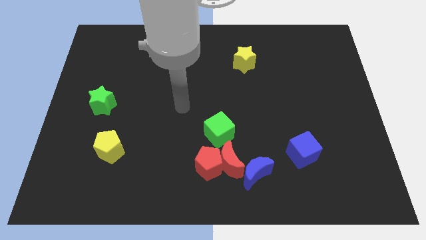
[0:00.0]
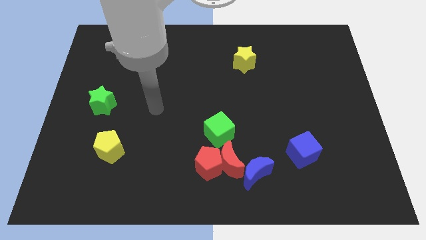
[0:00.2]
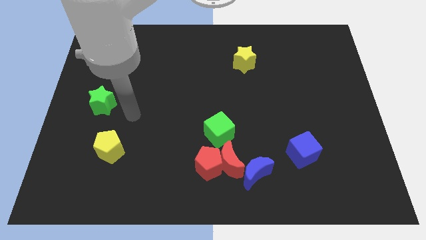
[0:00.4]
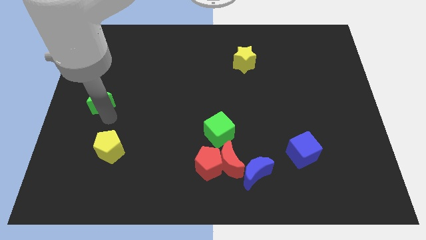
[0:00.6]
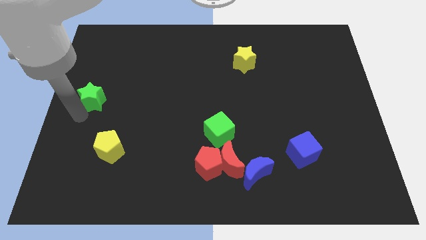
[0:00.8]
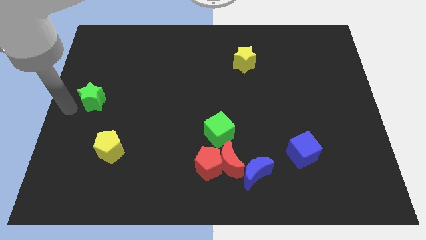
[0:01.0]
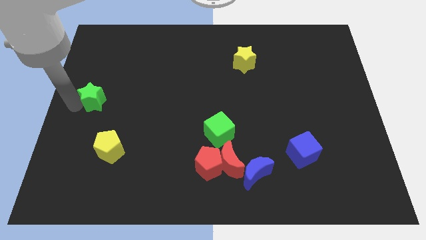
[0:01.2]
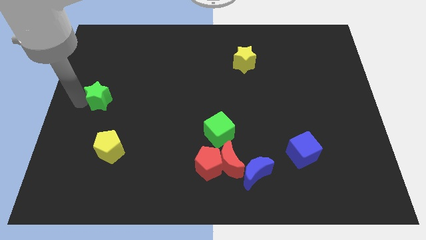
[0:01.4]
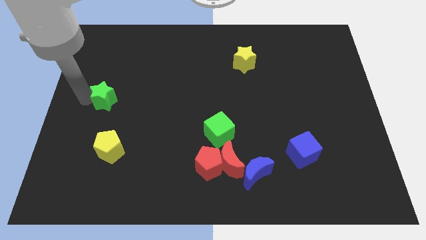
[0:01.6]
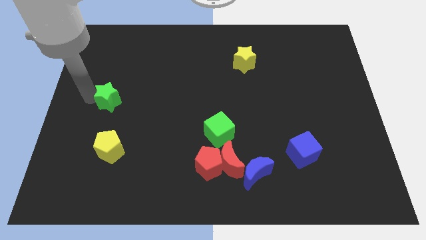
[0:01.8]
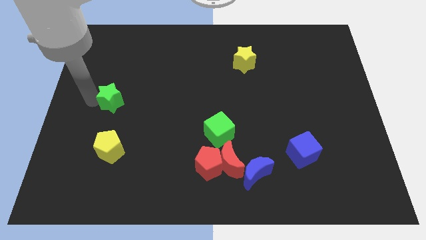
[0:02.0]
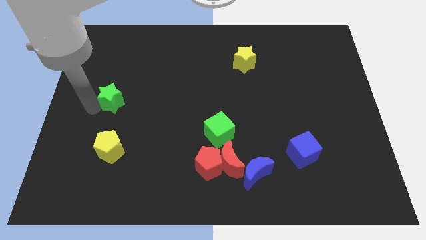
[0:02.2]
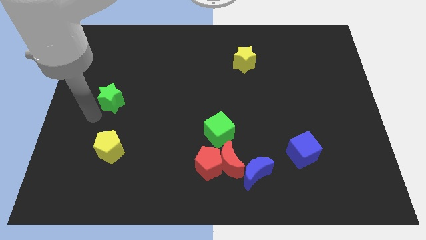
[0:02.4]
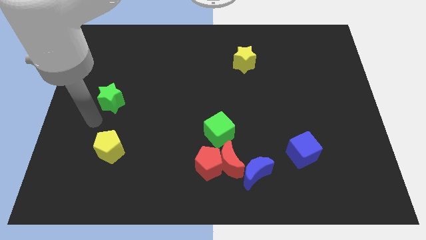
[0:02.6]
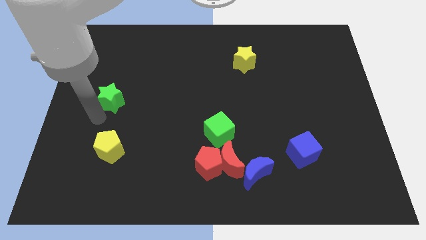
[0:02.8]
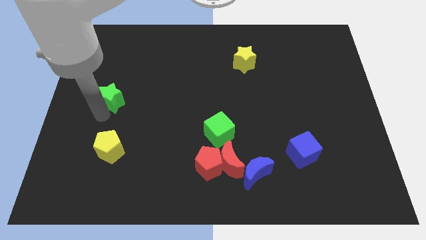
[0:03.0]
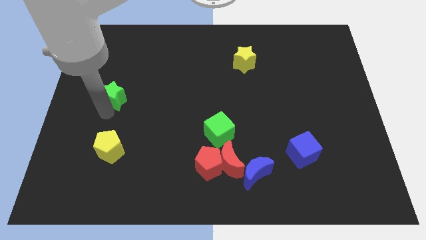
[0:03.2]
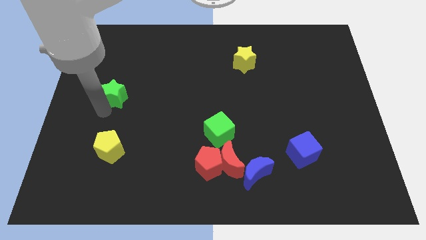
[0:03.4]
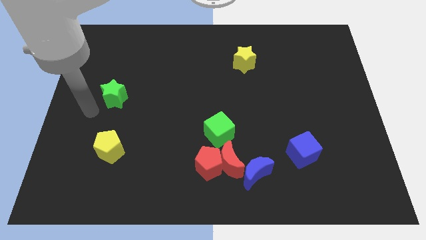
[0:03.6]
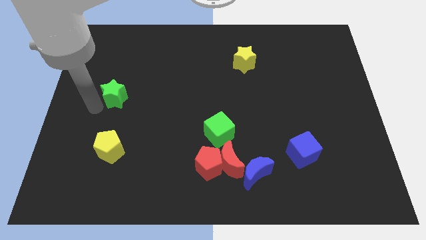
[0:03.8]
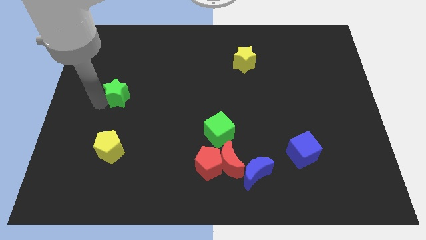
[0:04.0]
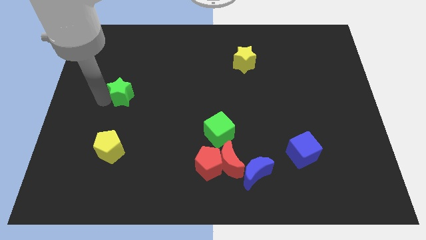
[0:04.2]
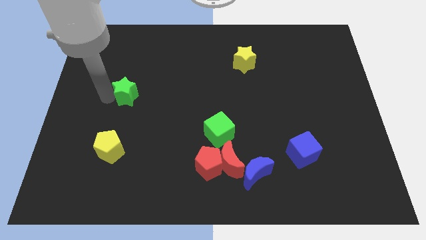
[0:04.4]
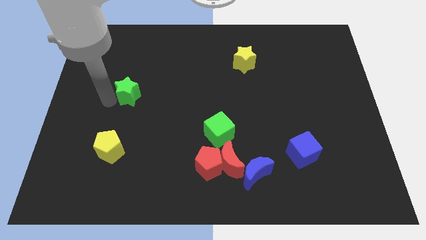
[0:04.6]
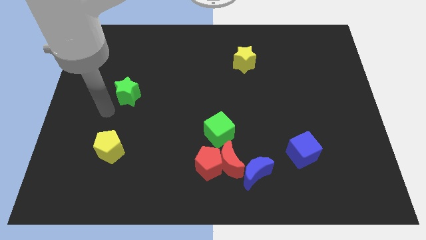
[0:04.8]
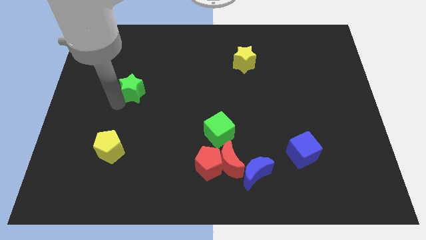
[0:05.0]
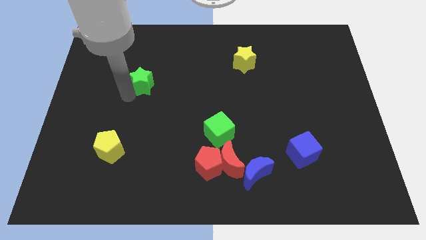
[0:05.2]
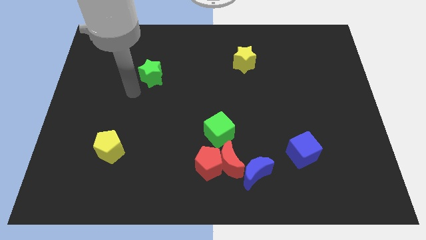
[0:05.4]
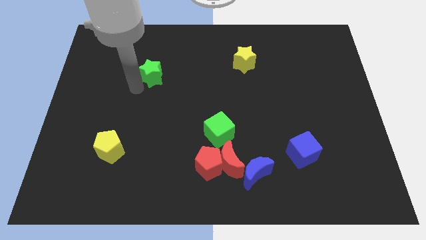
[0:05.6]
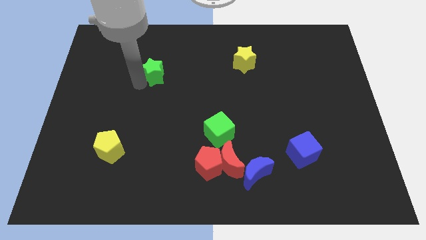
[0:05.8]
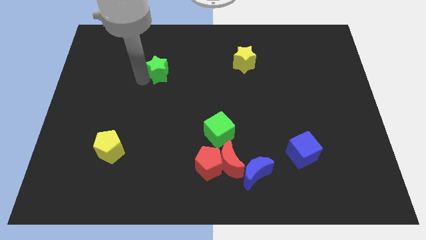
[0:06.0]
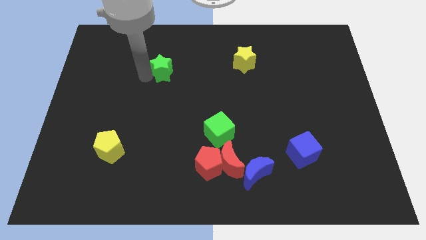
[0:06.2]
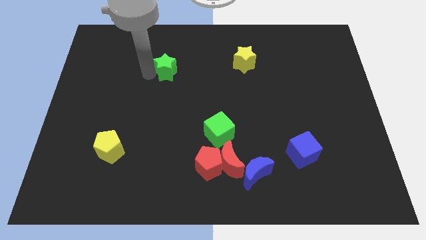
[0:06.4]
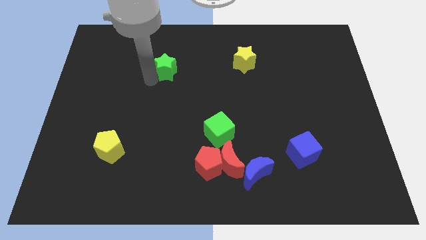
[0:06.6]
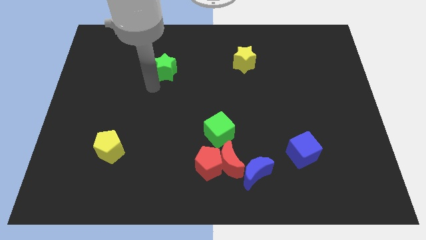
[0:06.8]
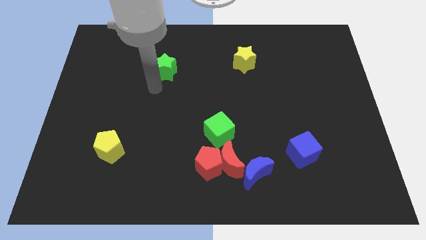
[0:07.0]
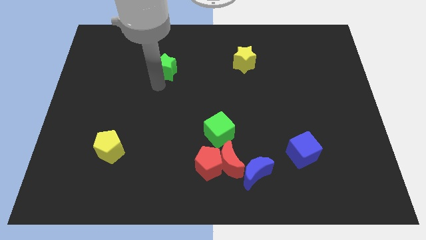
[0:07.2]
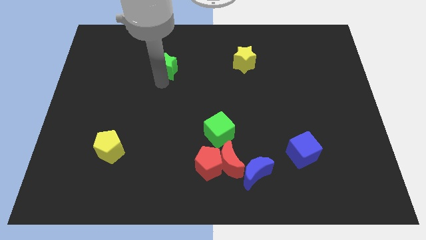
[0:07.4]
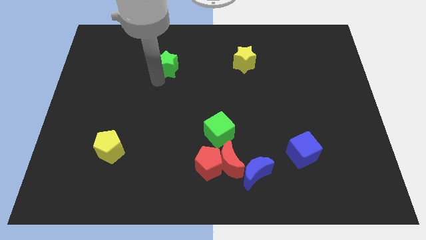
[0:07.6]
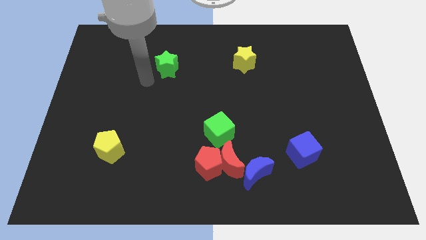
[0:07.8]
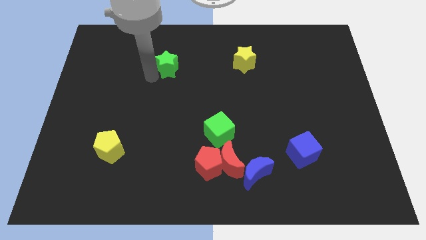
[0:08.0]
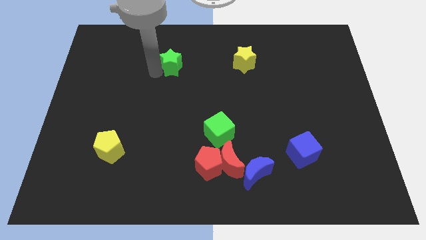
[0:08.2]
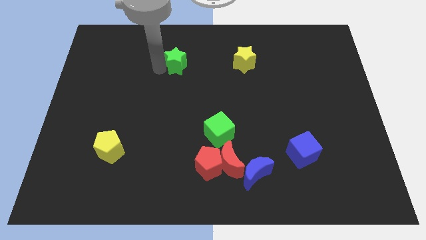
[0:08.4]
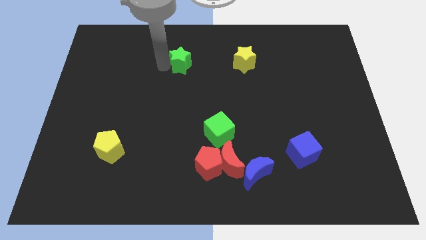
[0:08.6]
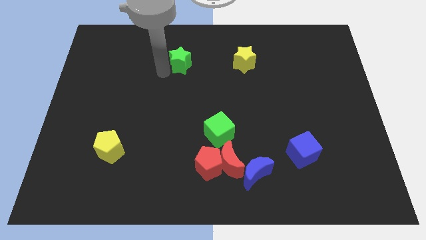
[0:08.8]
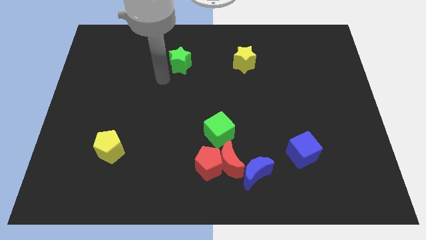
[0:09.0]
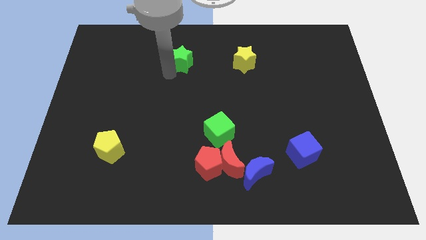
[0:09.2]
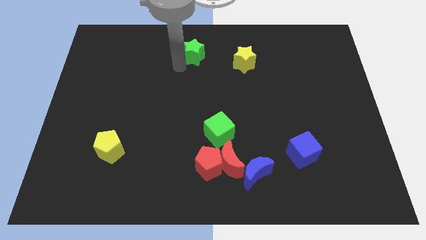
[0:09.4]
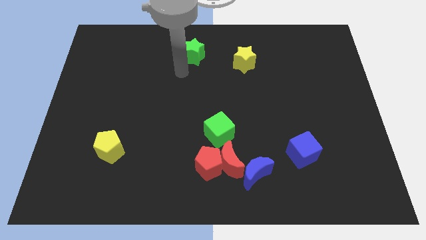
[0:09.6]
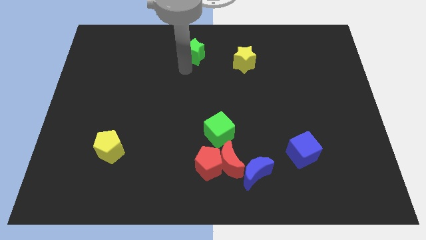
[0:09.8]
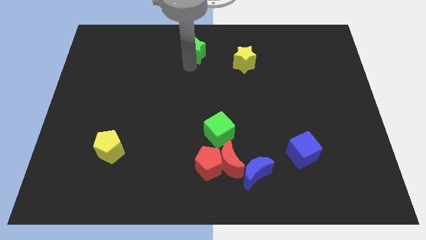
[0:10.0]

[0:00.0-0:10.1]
move the green star to the top

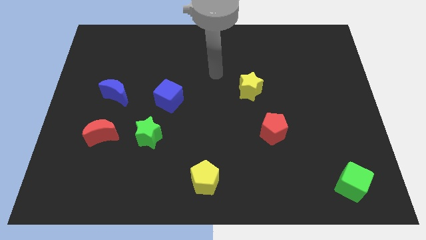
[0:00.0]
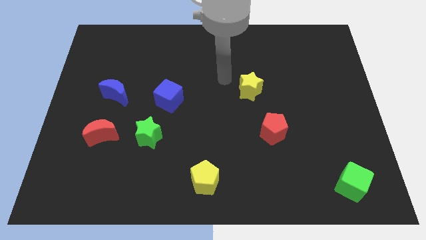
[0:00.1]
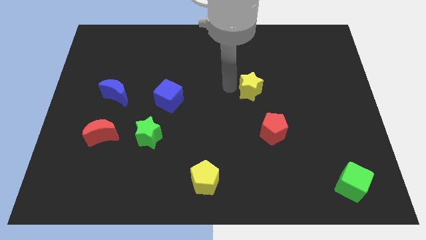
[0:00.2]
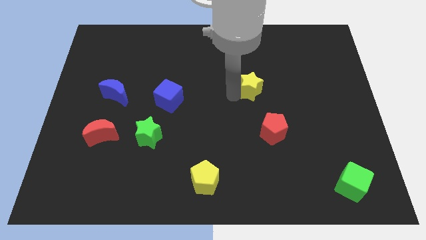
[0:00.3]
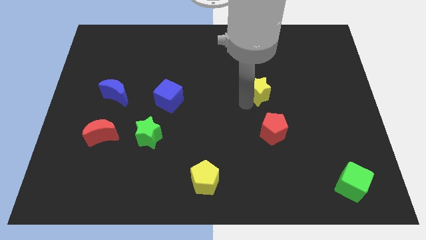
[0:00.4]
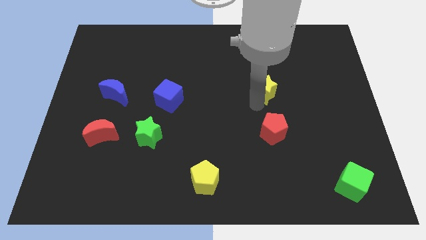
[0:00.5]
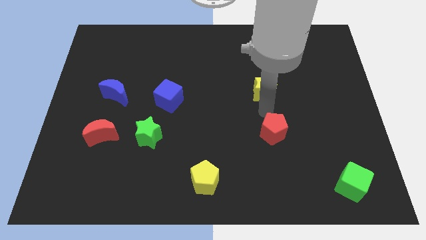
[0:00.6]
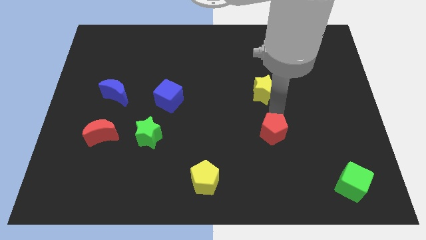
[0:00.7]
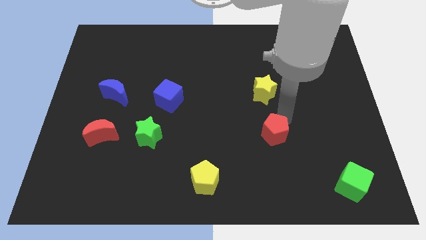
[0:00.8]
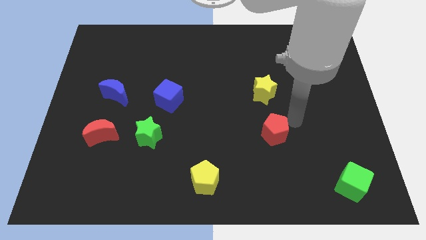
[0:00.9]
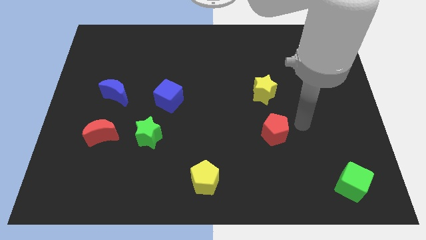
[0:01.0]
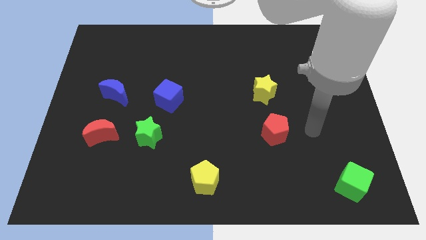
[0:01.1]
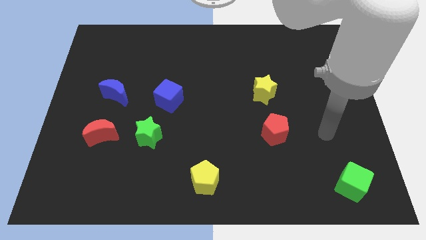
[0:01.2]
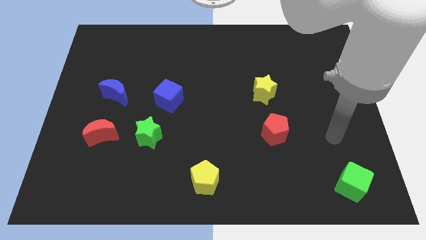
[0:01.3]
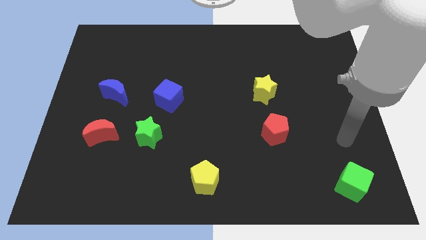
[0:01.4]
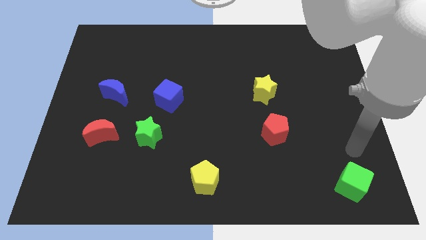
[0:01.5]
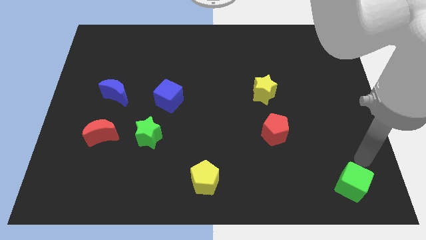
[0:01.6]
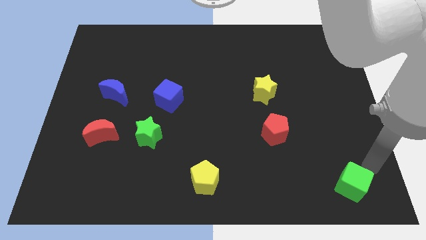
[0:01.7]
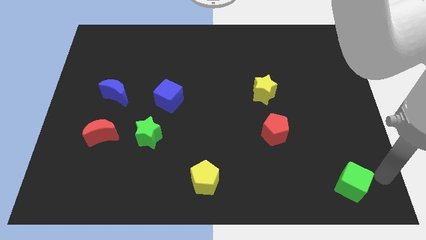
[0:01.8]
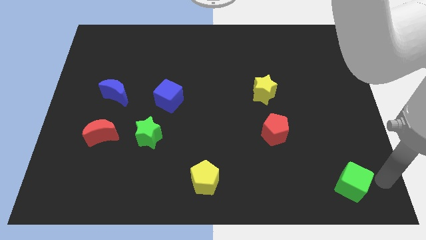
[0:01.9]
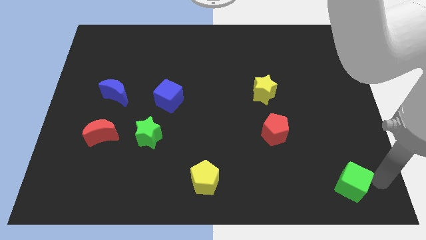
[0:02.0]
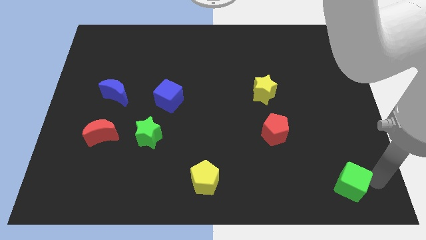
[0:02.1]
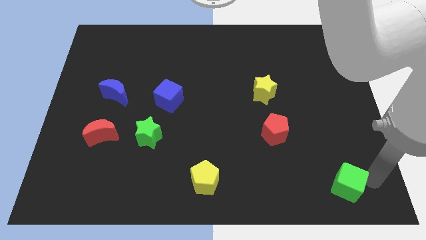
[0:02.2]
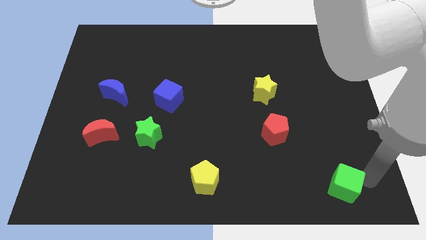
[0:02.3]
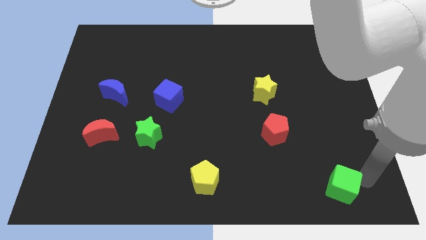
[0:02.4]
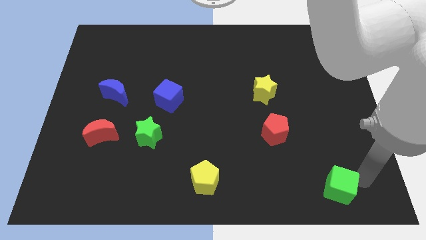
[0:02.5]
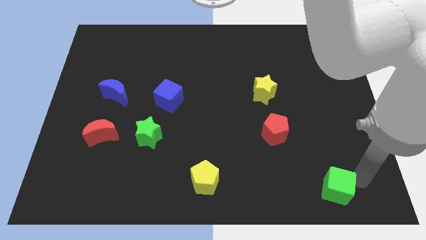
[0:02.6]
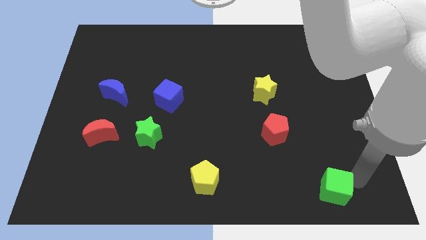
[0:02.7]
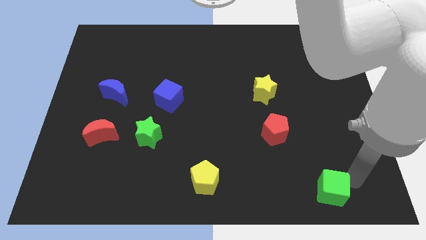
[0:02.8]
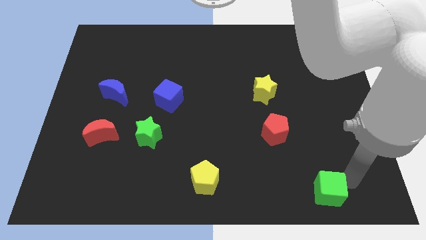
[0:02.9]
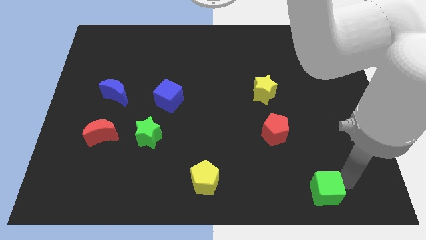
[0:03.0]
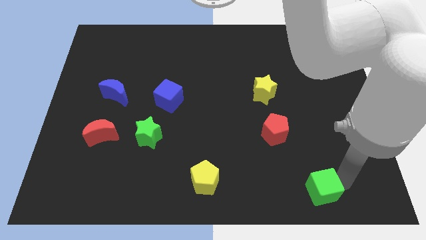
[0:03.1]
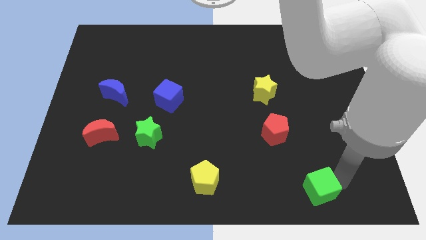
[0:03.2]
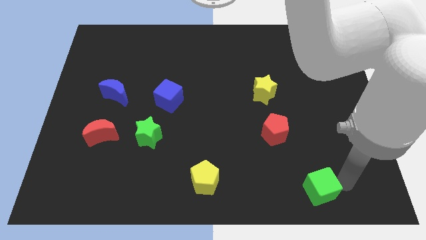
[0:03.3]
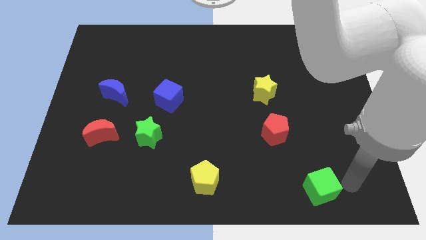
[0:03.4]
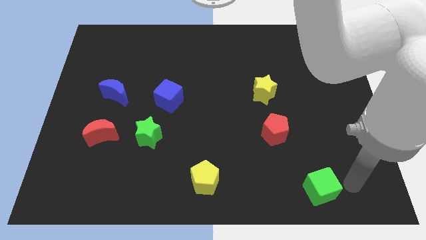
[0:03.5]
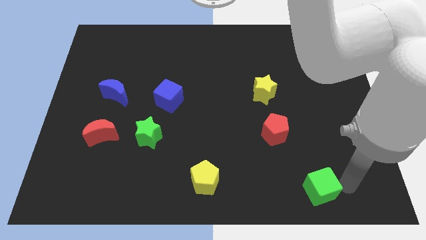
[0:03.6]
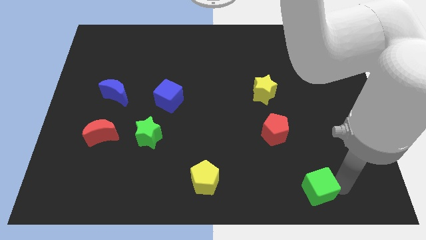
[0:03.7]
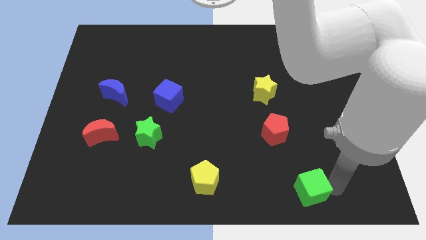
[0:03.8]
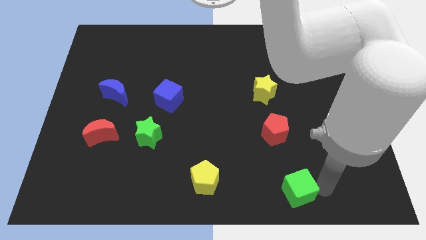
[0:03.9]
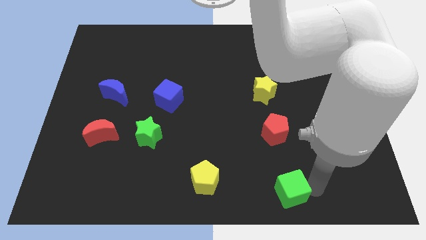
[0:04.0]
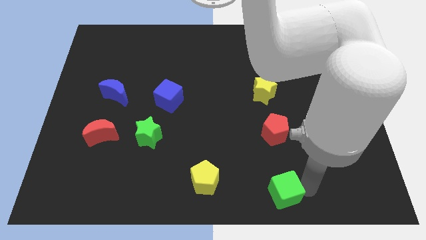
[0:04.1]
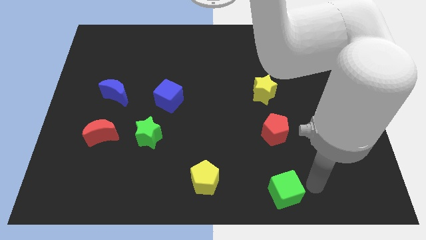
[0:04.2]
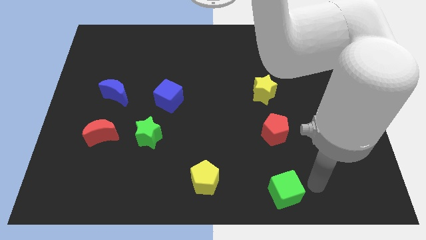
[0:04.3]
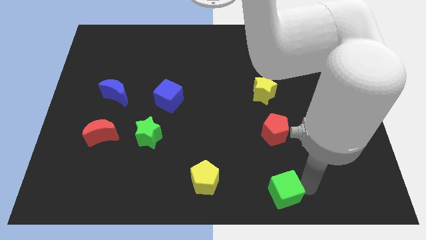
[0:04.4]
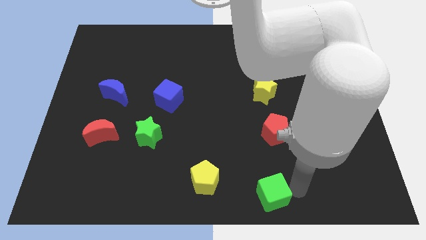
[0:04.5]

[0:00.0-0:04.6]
move the green cube to the bottom
